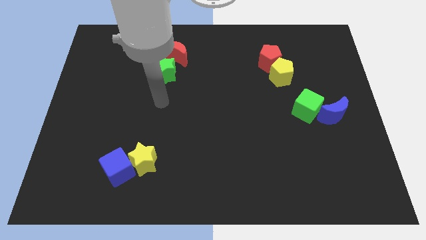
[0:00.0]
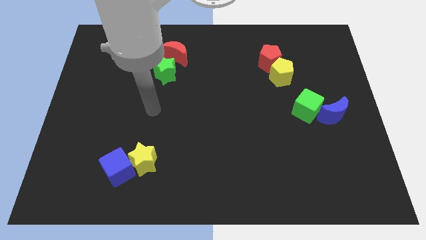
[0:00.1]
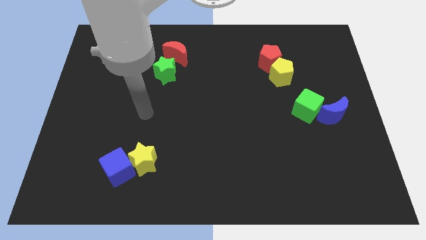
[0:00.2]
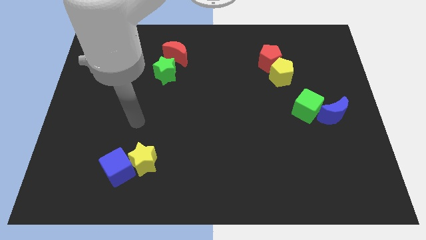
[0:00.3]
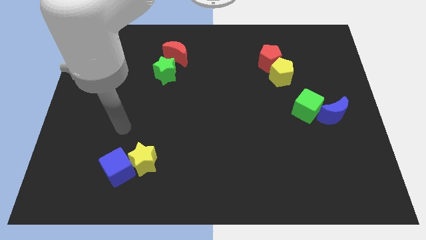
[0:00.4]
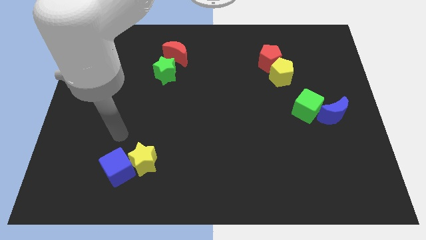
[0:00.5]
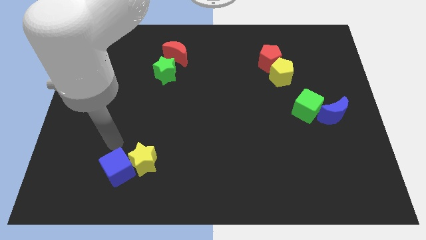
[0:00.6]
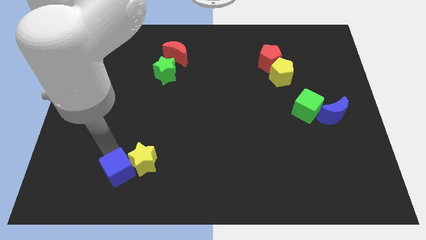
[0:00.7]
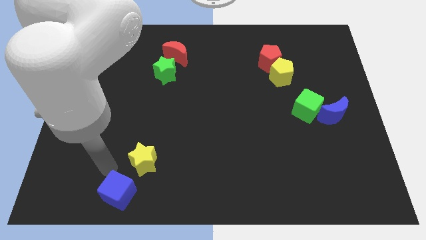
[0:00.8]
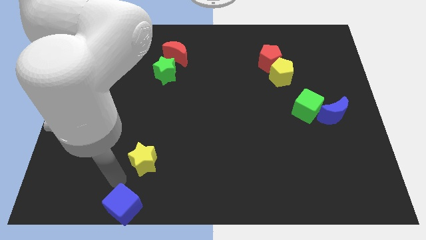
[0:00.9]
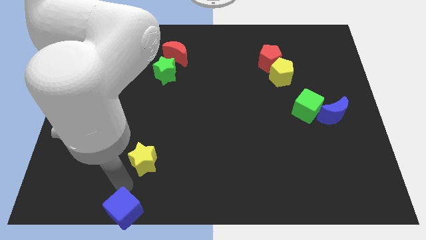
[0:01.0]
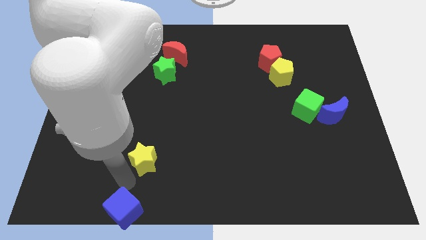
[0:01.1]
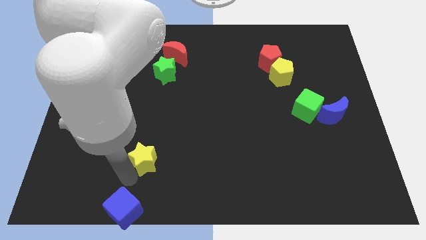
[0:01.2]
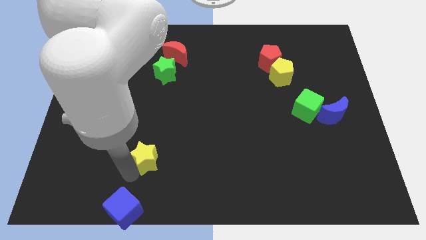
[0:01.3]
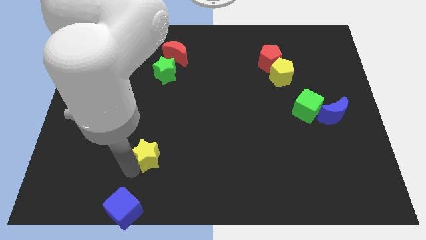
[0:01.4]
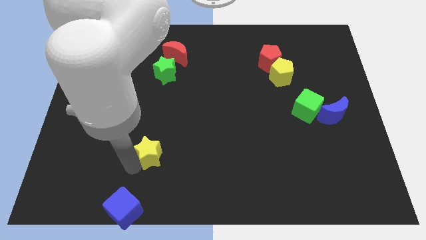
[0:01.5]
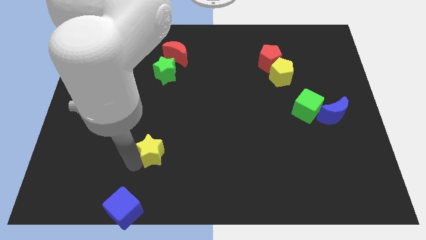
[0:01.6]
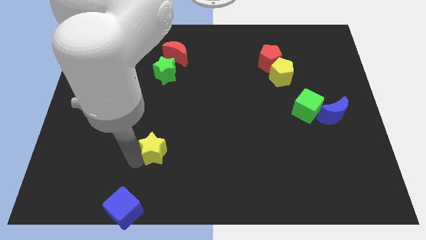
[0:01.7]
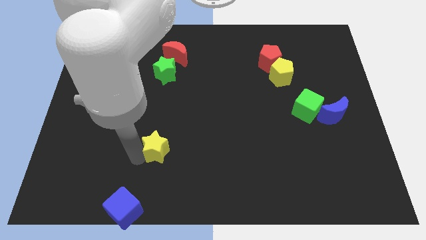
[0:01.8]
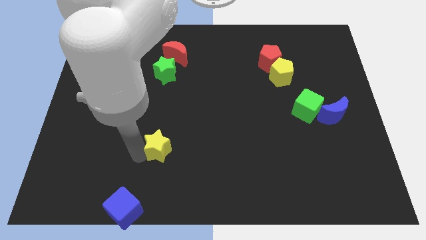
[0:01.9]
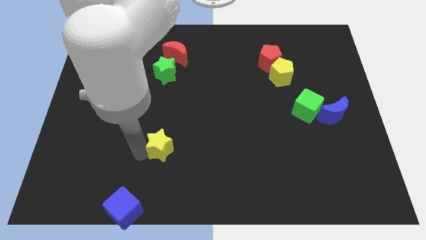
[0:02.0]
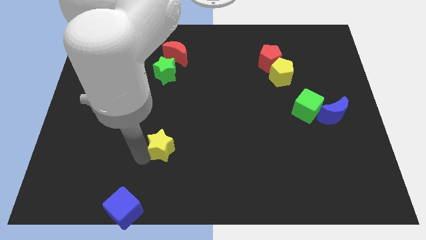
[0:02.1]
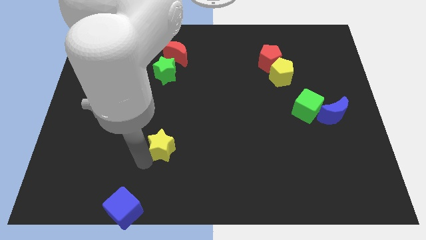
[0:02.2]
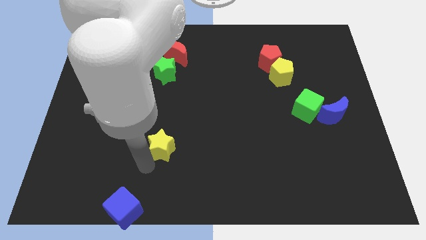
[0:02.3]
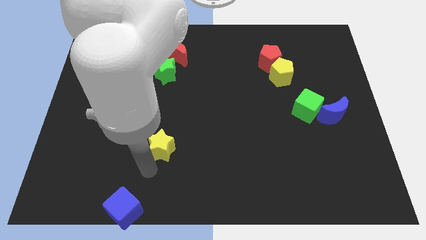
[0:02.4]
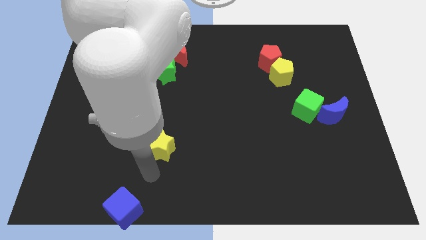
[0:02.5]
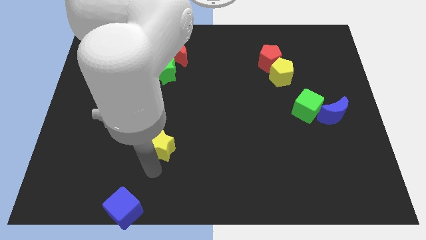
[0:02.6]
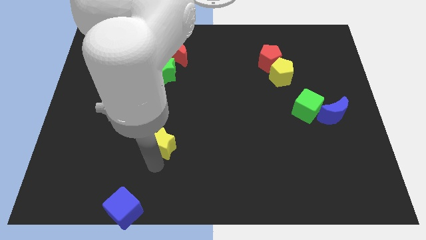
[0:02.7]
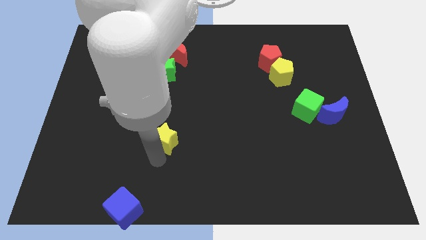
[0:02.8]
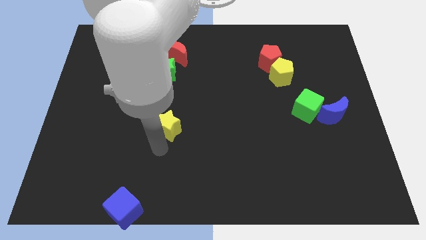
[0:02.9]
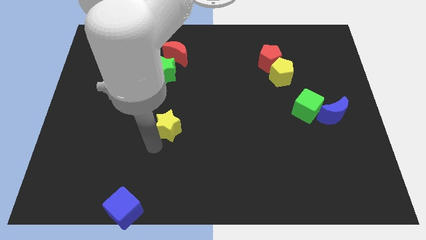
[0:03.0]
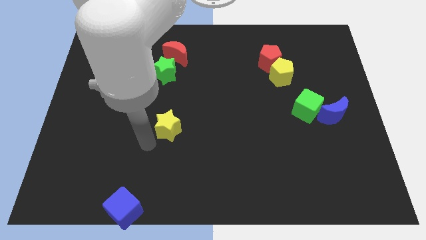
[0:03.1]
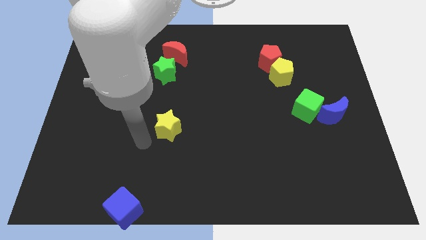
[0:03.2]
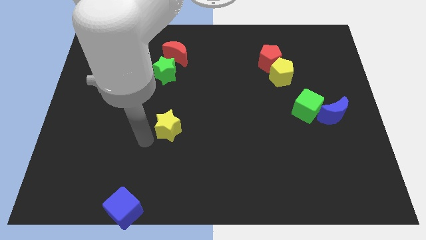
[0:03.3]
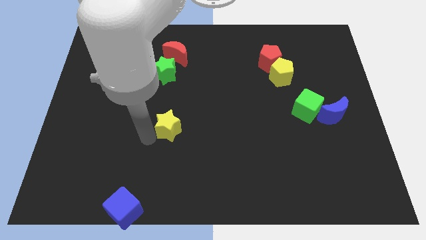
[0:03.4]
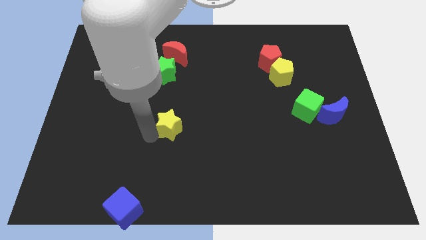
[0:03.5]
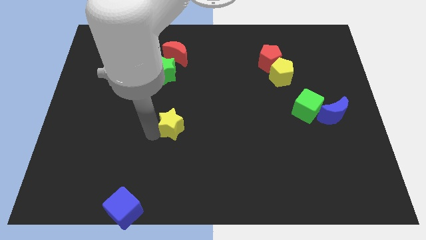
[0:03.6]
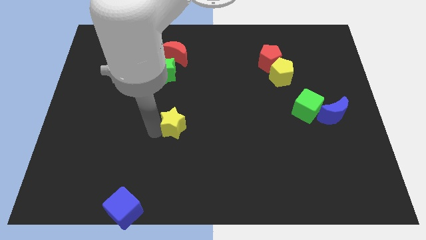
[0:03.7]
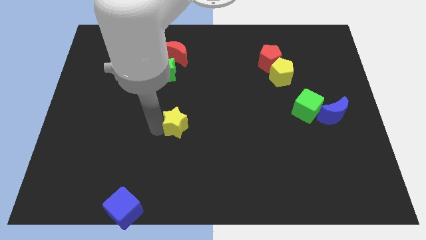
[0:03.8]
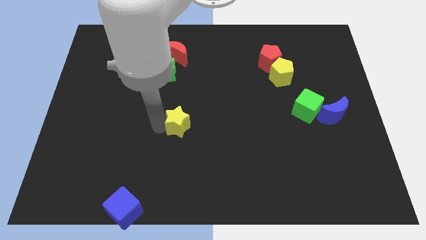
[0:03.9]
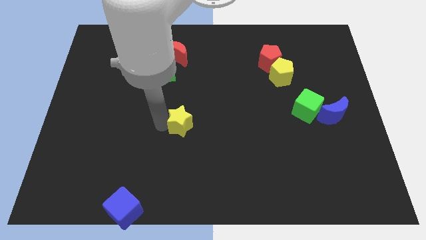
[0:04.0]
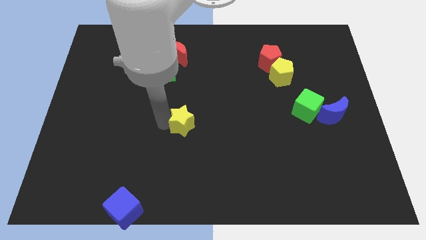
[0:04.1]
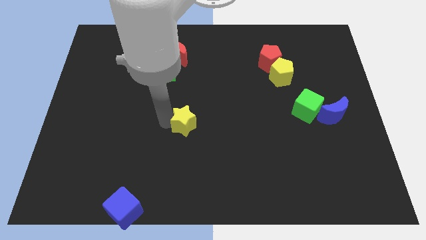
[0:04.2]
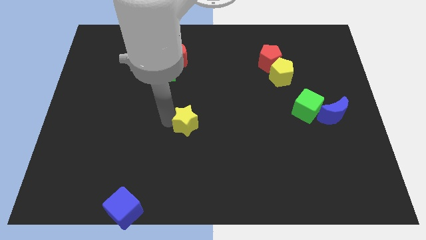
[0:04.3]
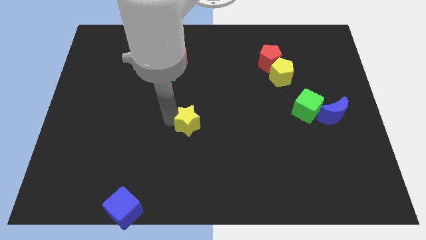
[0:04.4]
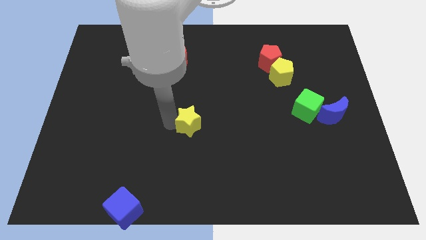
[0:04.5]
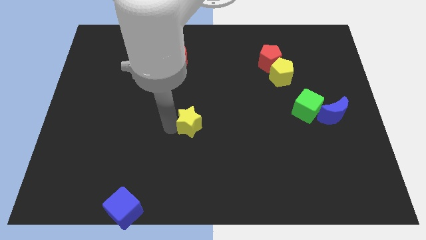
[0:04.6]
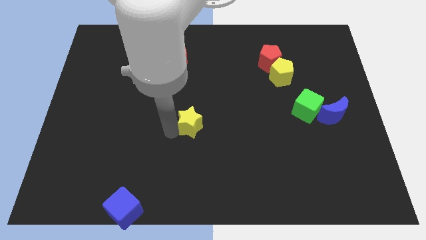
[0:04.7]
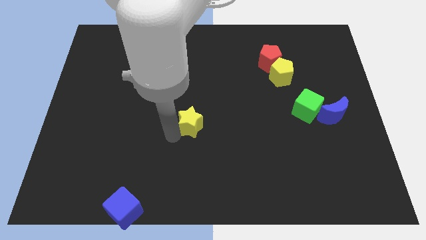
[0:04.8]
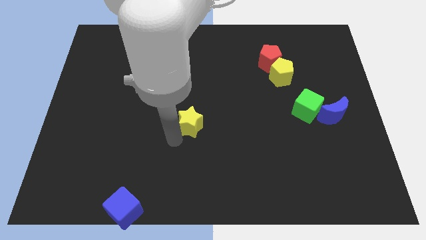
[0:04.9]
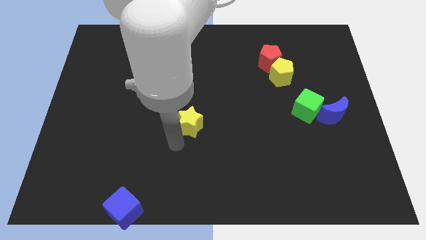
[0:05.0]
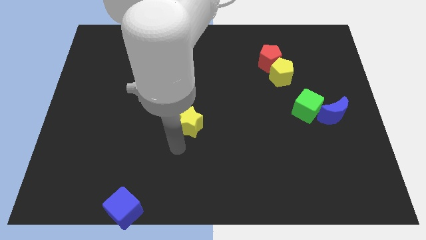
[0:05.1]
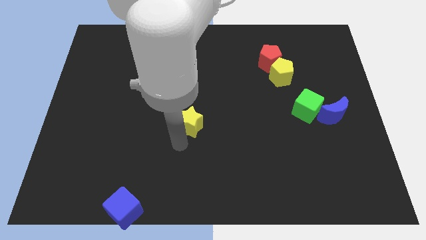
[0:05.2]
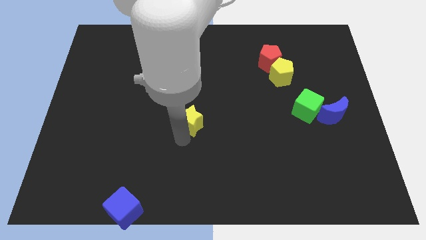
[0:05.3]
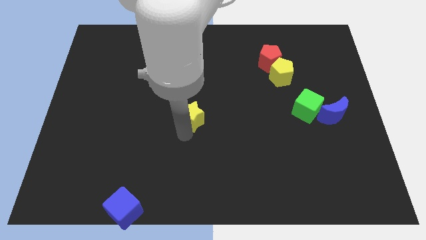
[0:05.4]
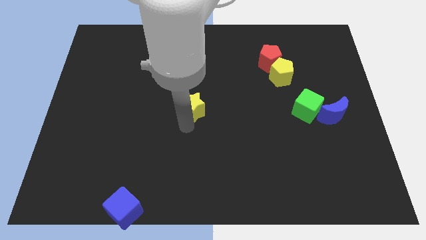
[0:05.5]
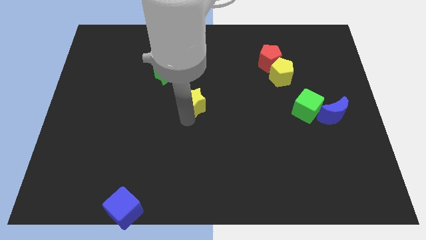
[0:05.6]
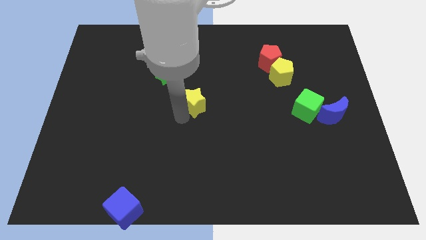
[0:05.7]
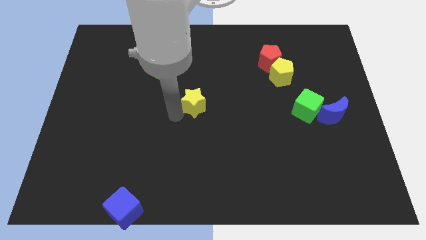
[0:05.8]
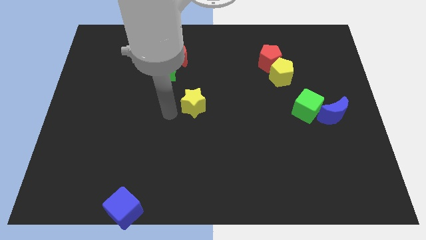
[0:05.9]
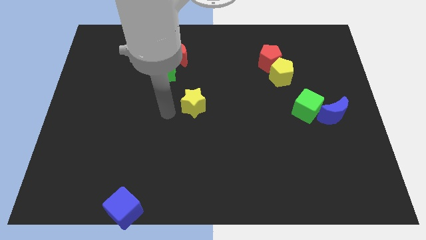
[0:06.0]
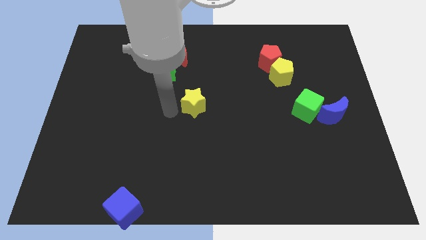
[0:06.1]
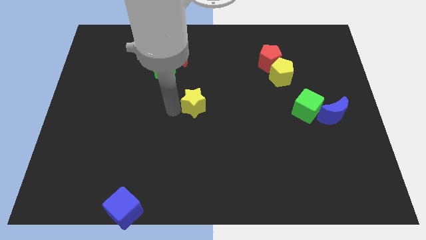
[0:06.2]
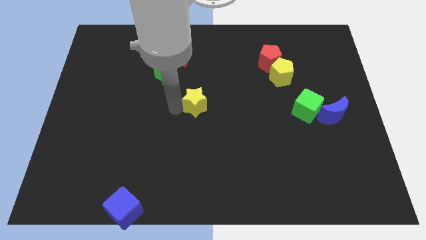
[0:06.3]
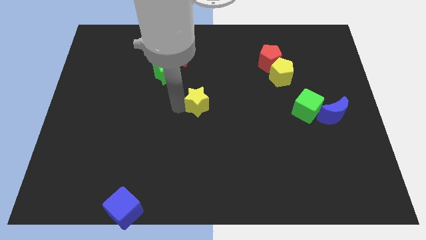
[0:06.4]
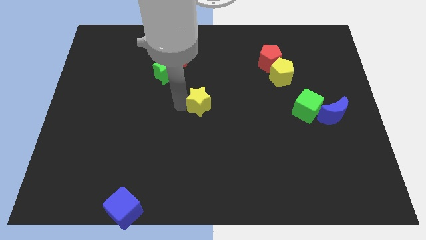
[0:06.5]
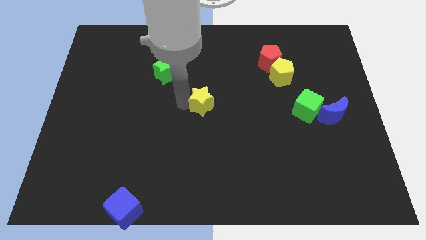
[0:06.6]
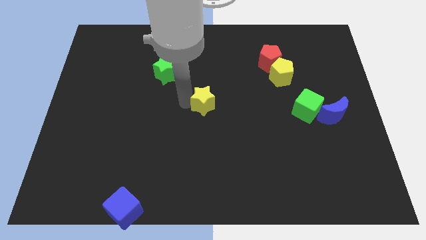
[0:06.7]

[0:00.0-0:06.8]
slide the yellow star diagonally up and to the right

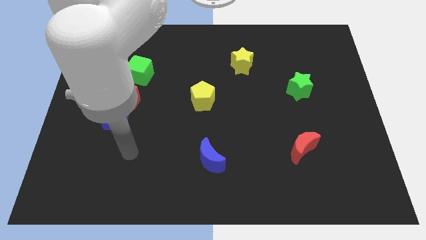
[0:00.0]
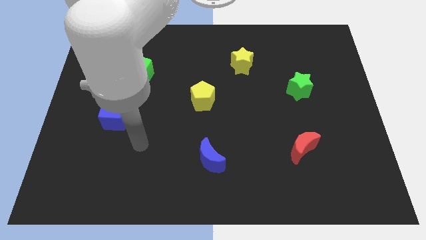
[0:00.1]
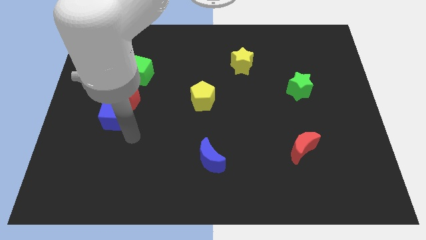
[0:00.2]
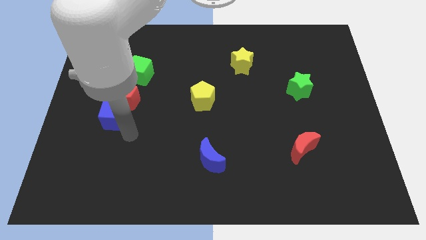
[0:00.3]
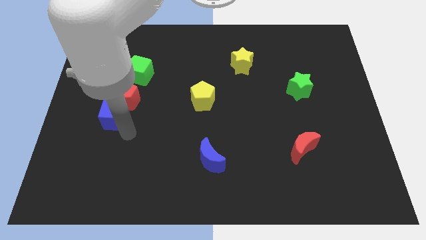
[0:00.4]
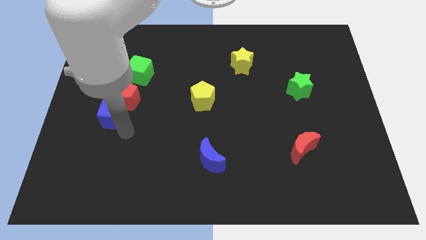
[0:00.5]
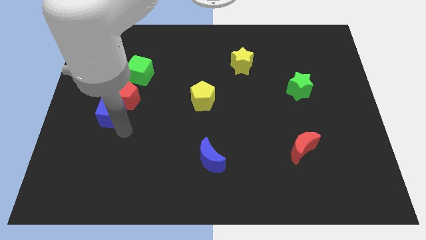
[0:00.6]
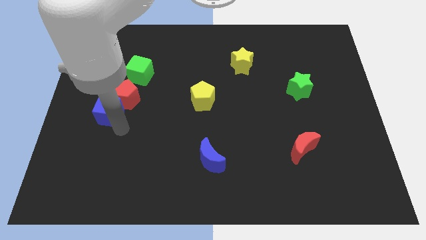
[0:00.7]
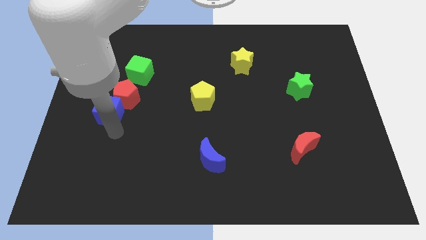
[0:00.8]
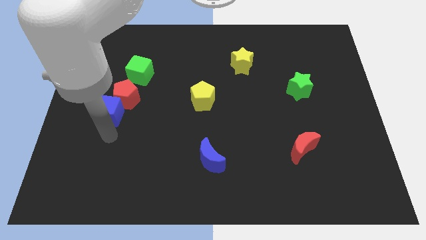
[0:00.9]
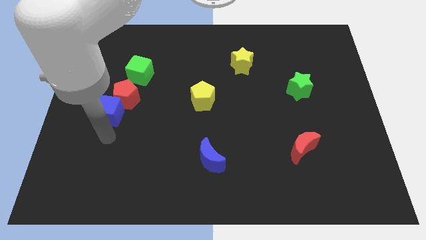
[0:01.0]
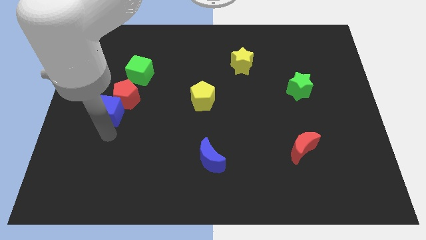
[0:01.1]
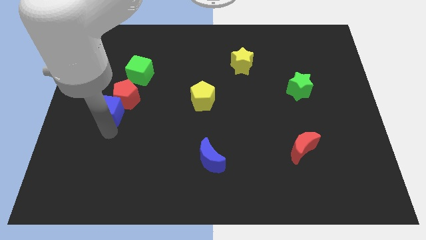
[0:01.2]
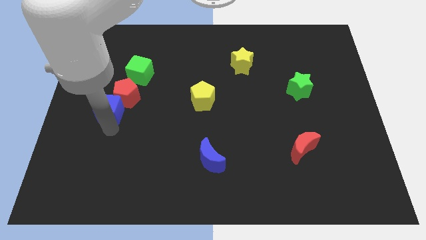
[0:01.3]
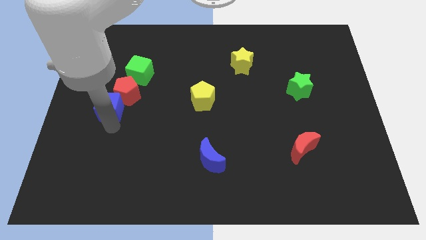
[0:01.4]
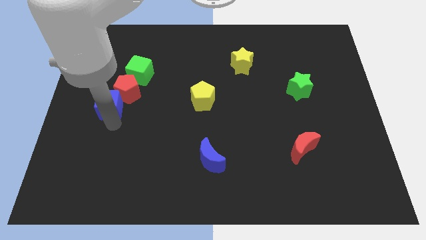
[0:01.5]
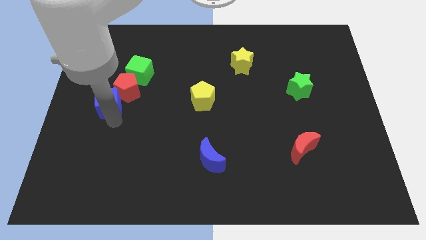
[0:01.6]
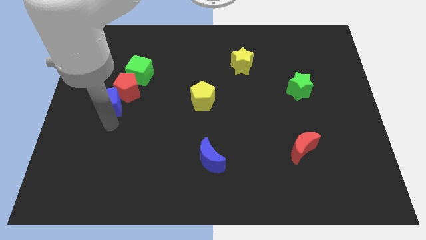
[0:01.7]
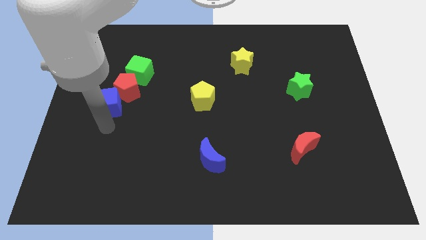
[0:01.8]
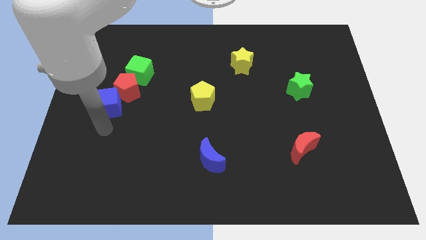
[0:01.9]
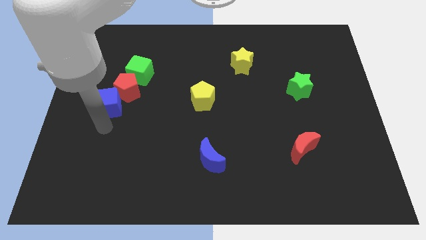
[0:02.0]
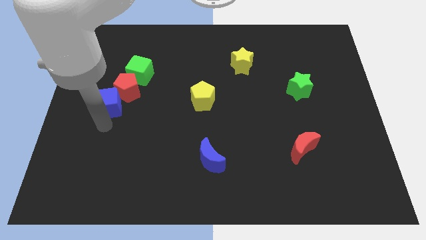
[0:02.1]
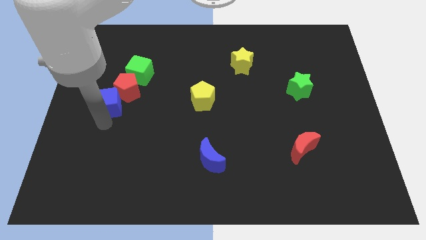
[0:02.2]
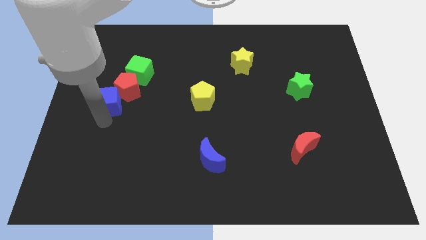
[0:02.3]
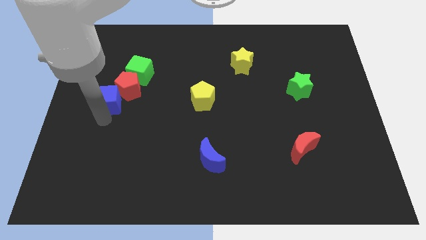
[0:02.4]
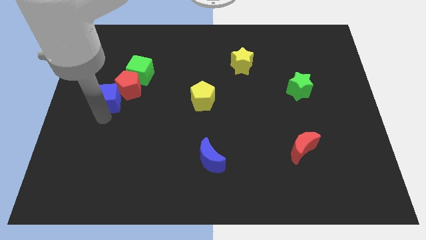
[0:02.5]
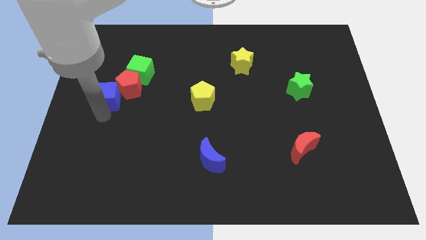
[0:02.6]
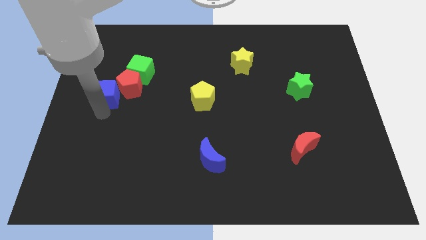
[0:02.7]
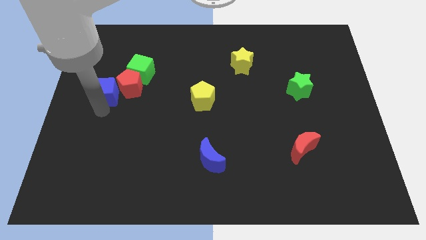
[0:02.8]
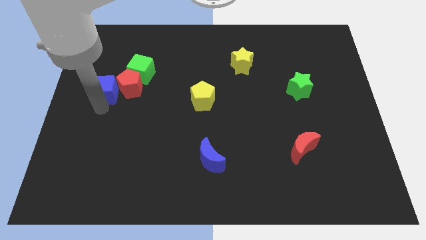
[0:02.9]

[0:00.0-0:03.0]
slide the blue cube upwards somewhat
